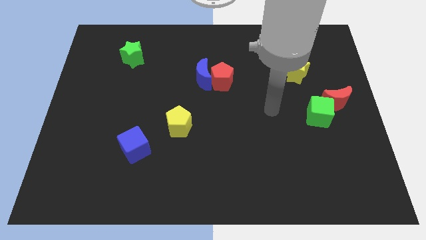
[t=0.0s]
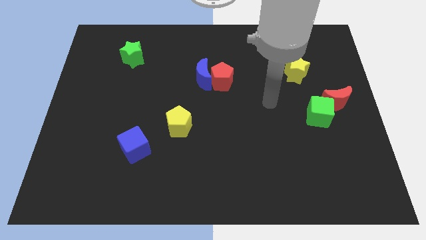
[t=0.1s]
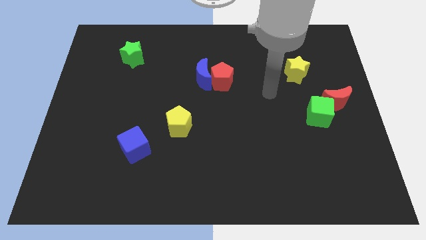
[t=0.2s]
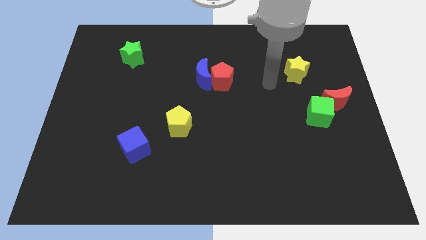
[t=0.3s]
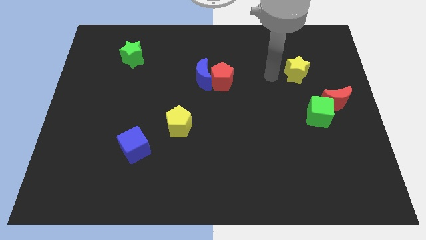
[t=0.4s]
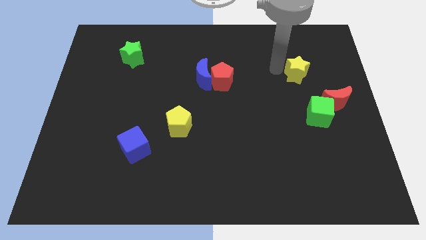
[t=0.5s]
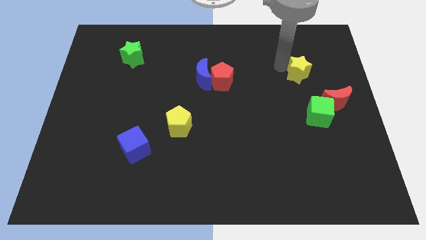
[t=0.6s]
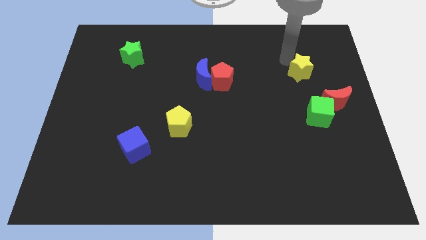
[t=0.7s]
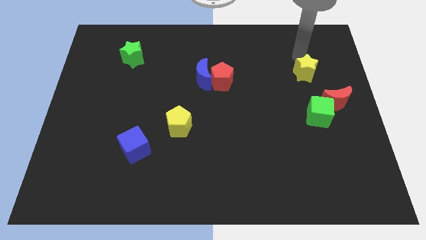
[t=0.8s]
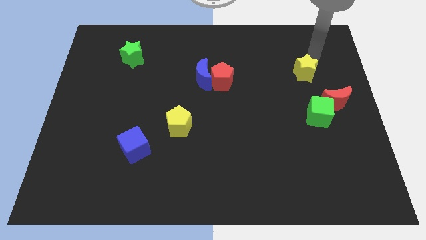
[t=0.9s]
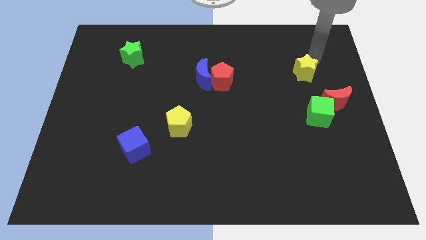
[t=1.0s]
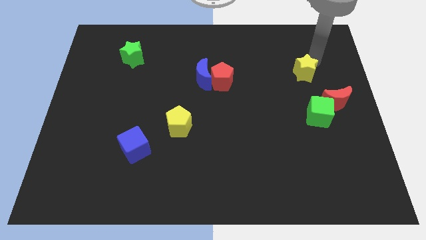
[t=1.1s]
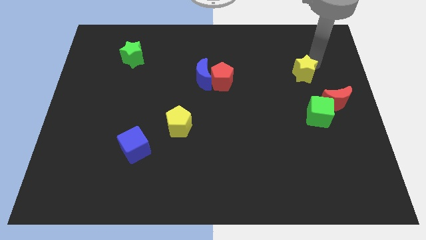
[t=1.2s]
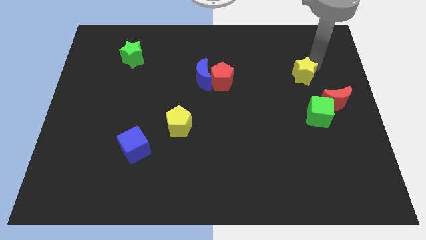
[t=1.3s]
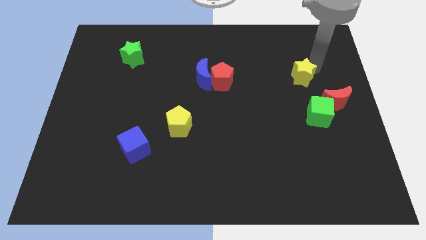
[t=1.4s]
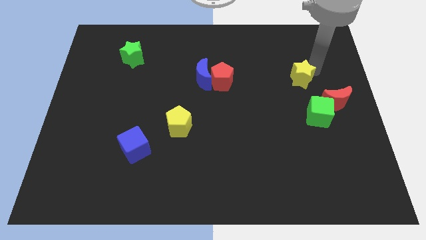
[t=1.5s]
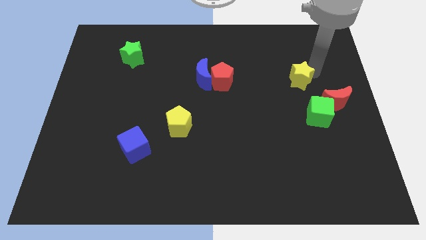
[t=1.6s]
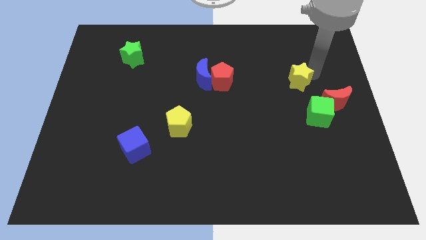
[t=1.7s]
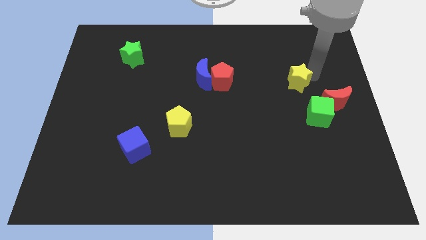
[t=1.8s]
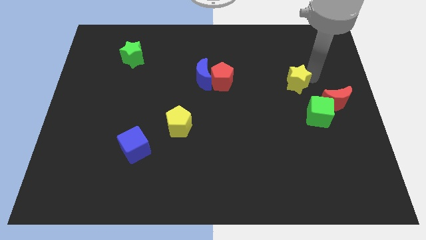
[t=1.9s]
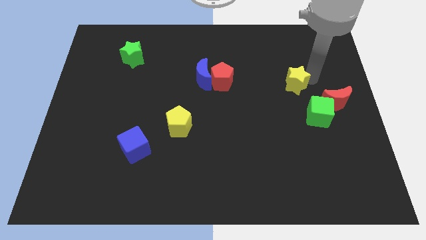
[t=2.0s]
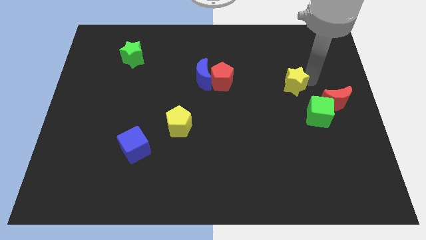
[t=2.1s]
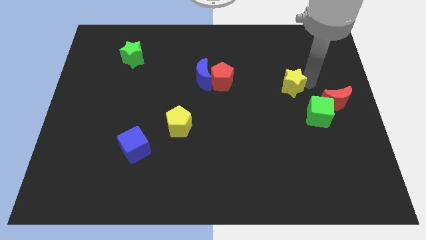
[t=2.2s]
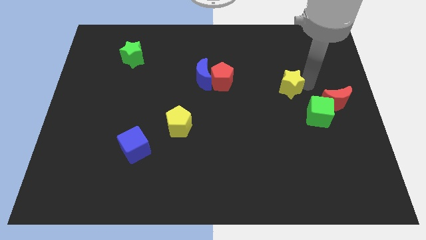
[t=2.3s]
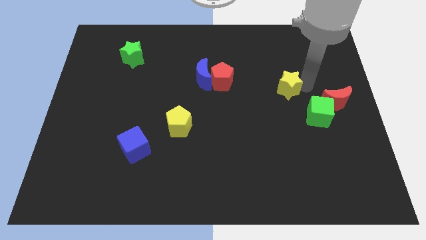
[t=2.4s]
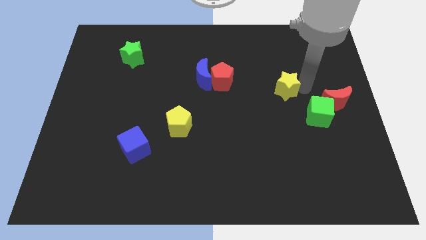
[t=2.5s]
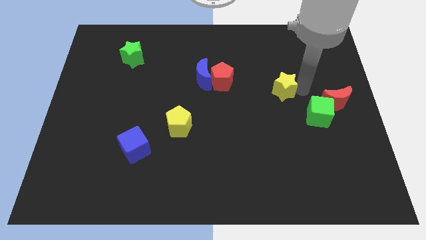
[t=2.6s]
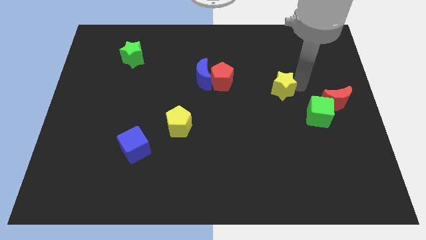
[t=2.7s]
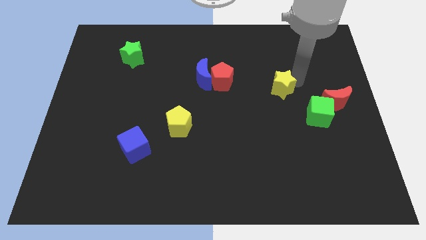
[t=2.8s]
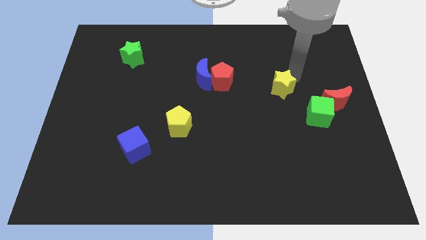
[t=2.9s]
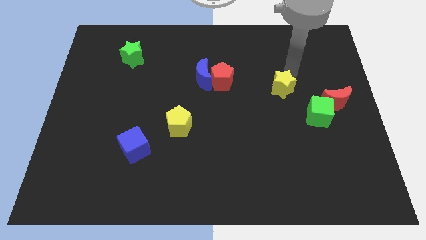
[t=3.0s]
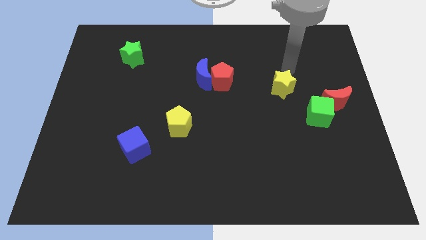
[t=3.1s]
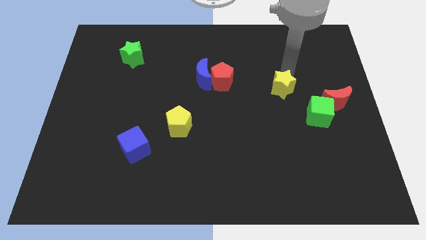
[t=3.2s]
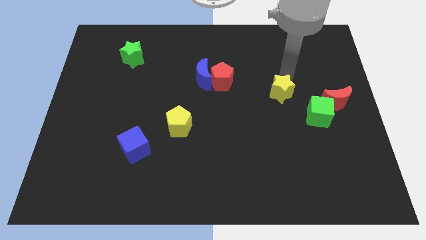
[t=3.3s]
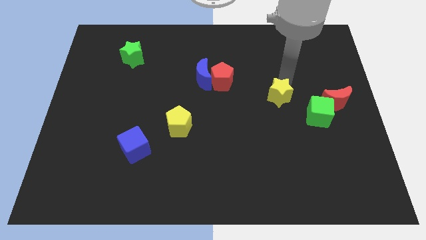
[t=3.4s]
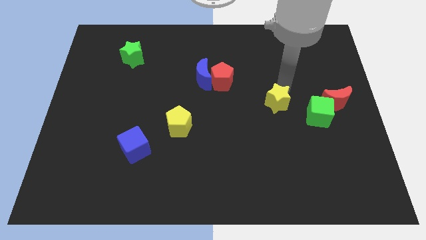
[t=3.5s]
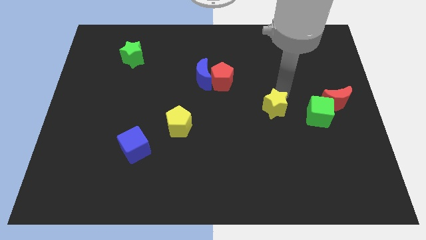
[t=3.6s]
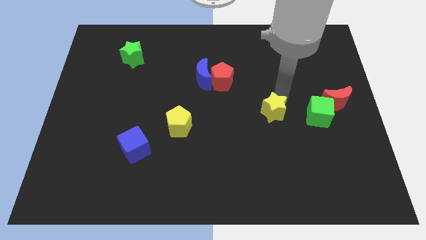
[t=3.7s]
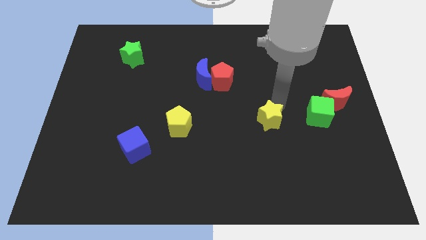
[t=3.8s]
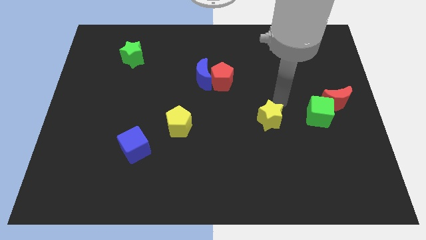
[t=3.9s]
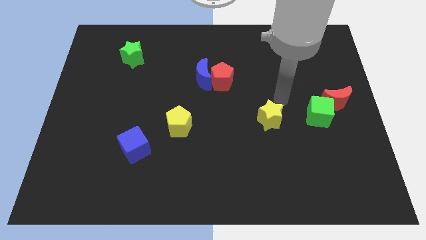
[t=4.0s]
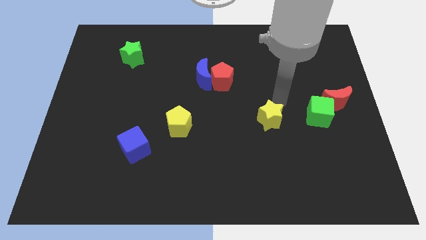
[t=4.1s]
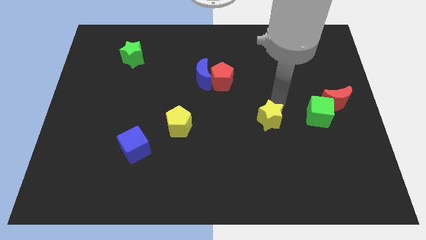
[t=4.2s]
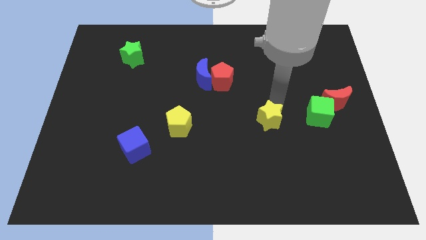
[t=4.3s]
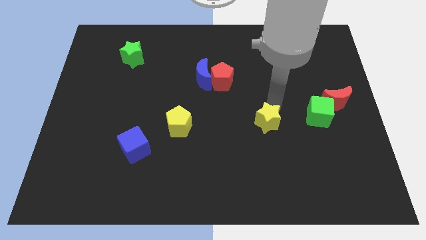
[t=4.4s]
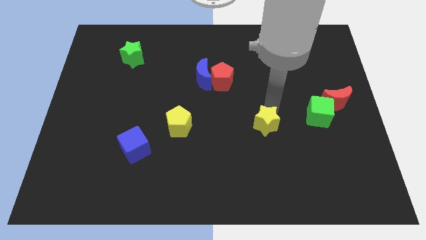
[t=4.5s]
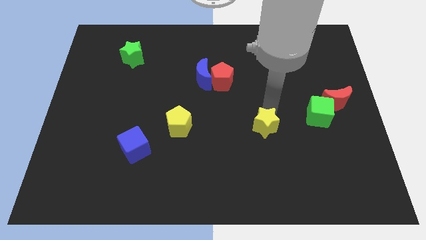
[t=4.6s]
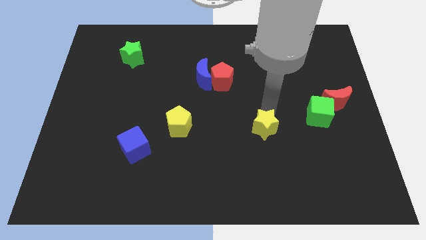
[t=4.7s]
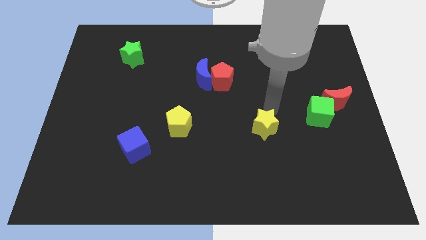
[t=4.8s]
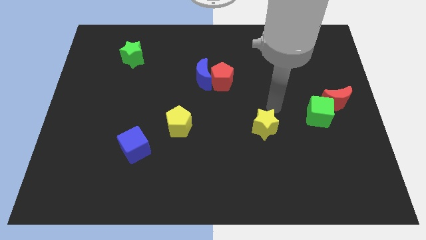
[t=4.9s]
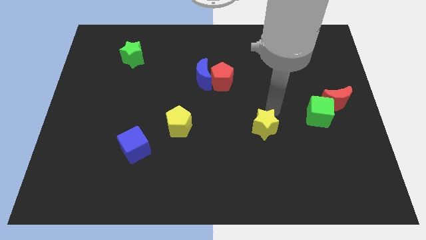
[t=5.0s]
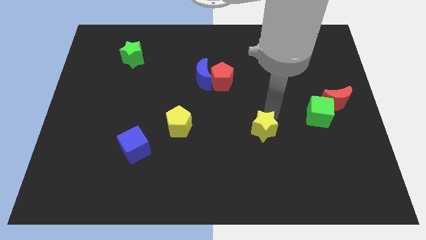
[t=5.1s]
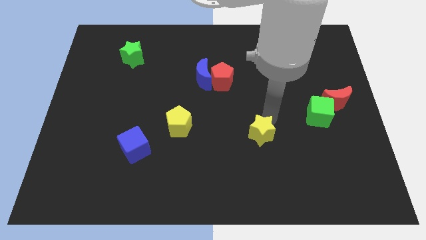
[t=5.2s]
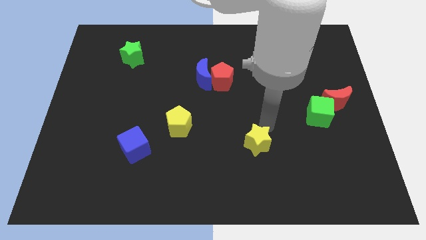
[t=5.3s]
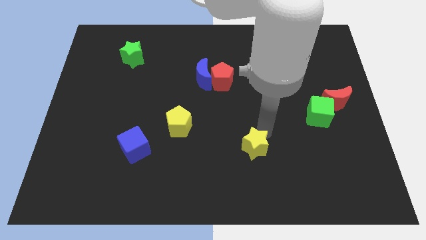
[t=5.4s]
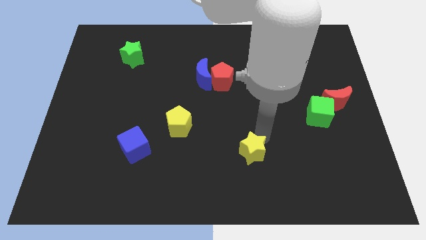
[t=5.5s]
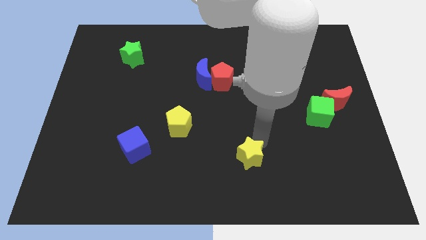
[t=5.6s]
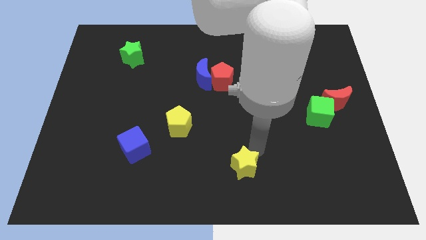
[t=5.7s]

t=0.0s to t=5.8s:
put the yellow star to the bottom side
